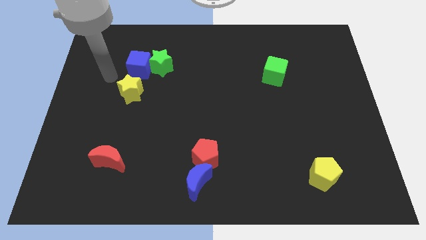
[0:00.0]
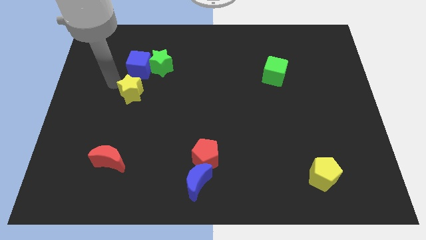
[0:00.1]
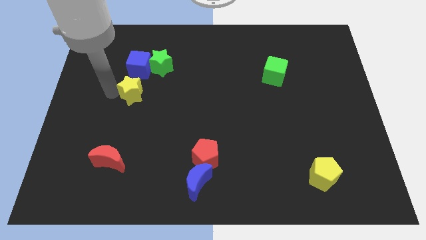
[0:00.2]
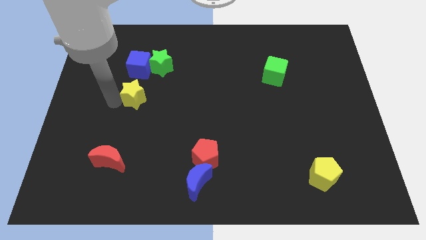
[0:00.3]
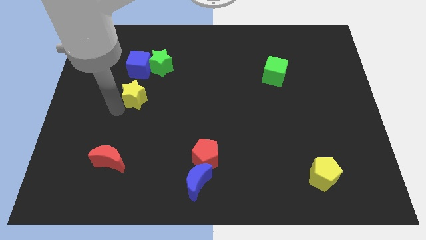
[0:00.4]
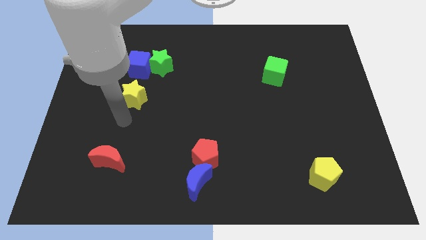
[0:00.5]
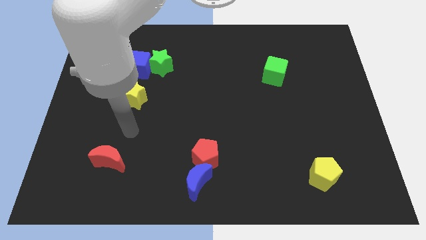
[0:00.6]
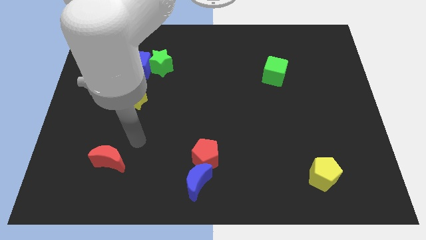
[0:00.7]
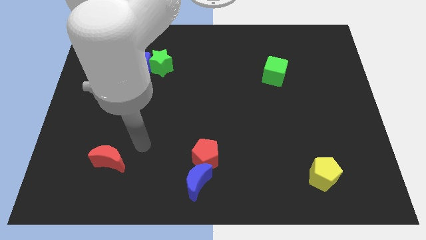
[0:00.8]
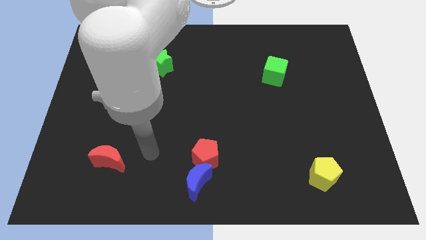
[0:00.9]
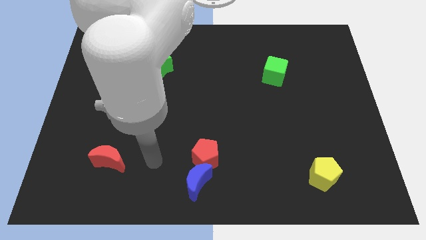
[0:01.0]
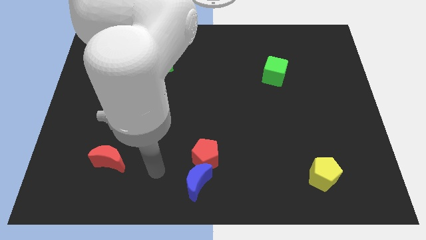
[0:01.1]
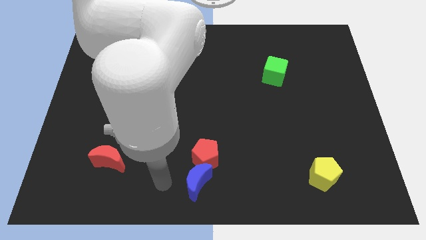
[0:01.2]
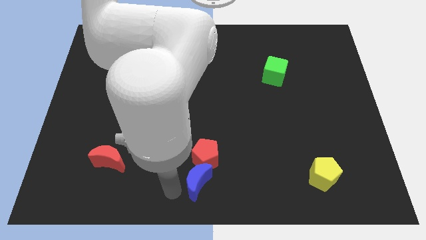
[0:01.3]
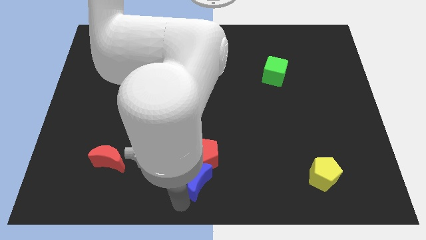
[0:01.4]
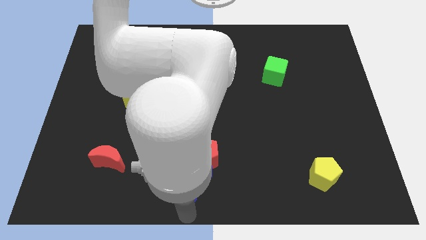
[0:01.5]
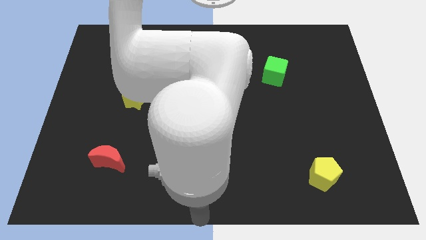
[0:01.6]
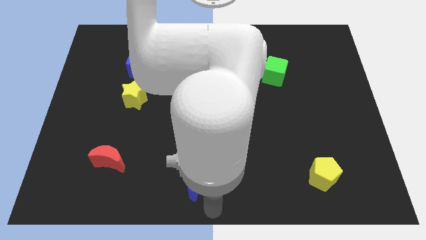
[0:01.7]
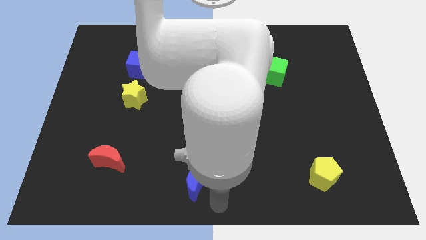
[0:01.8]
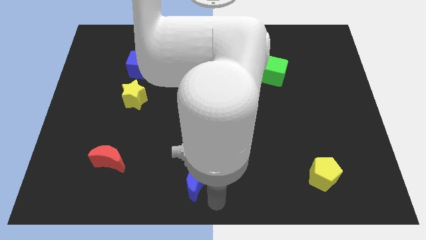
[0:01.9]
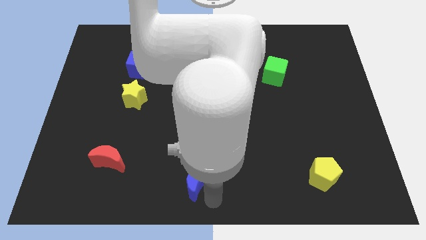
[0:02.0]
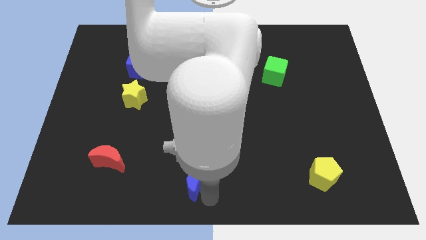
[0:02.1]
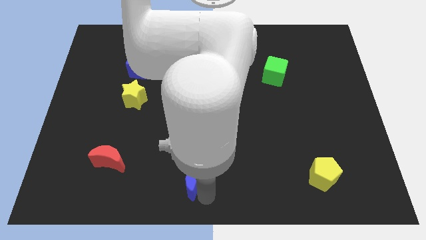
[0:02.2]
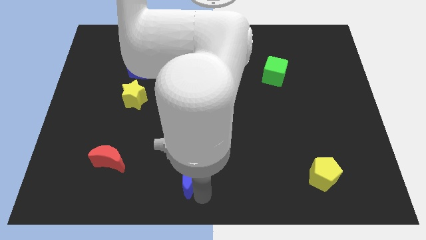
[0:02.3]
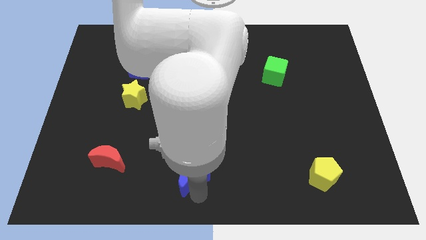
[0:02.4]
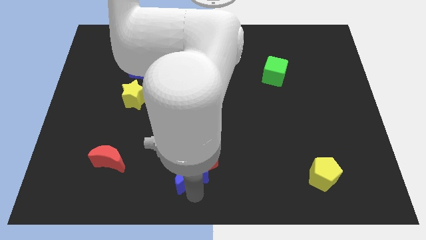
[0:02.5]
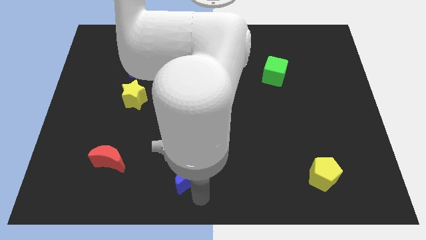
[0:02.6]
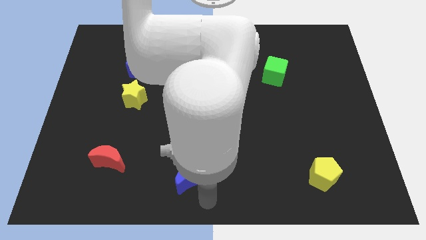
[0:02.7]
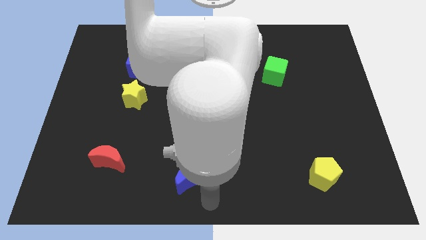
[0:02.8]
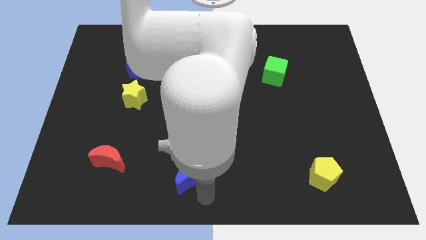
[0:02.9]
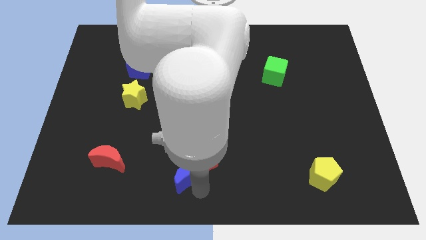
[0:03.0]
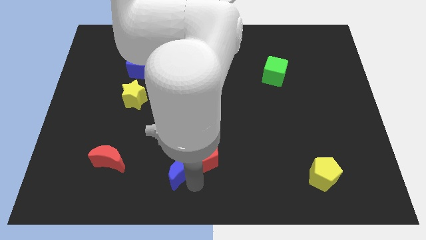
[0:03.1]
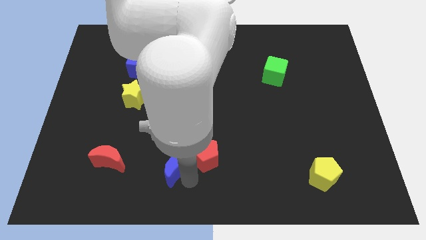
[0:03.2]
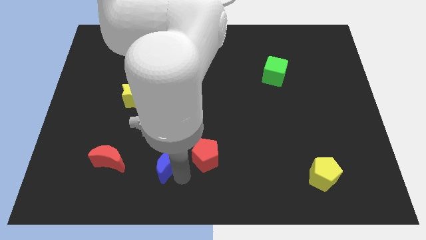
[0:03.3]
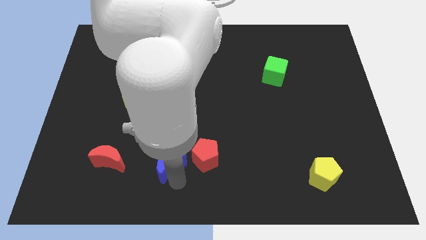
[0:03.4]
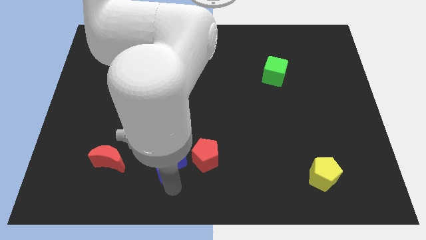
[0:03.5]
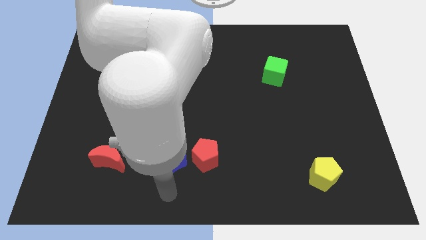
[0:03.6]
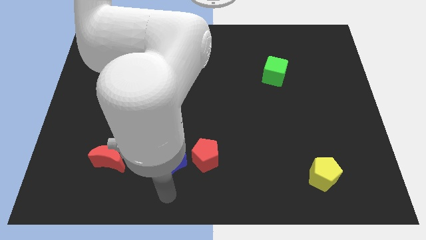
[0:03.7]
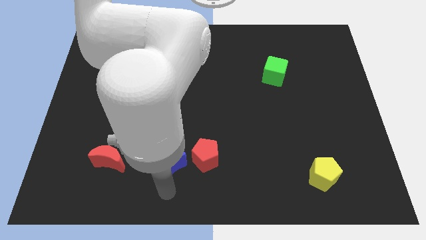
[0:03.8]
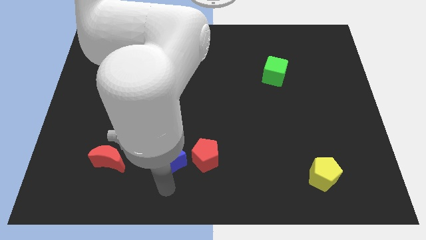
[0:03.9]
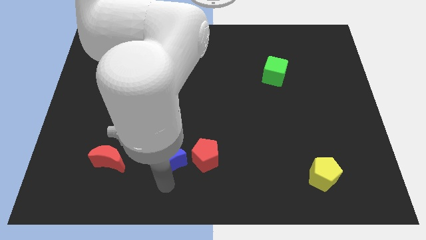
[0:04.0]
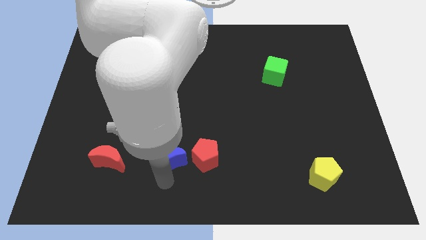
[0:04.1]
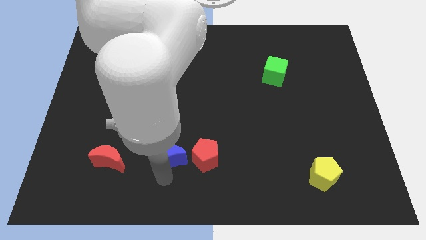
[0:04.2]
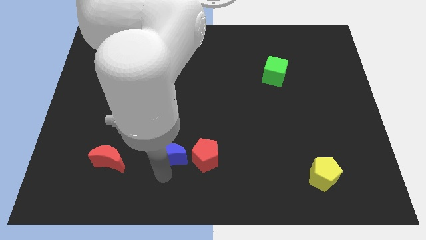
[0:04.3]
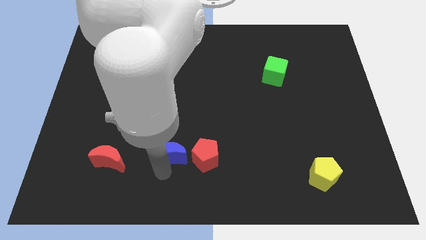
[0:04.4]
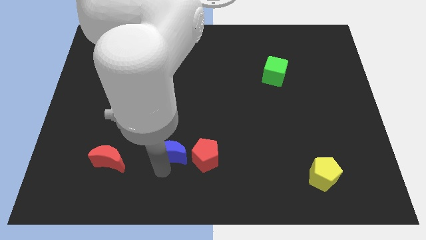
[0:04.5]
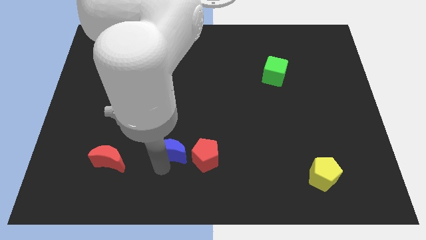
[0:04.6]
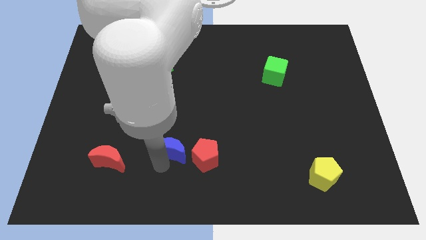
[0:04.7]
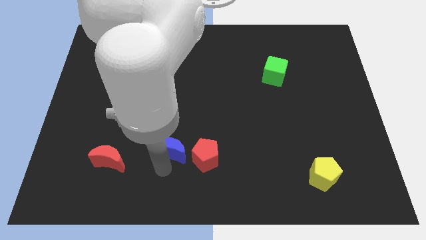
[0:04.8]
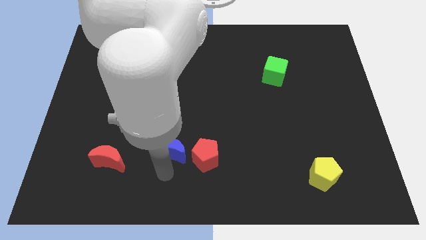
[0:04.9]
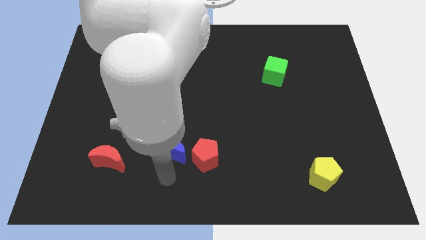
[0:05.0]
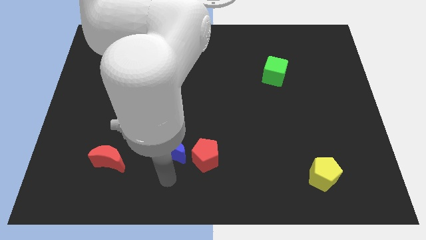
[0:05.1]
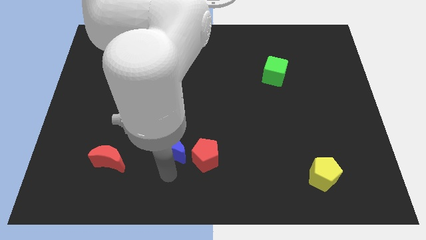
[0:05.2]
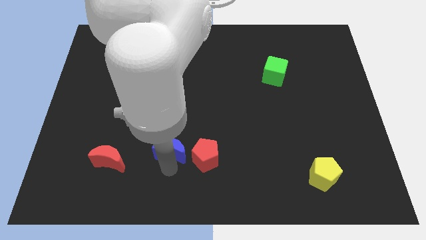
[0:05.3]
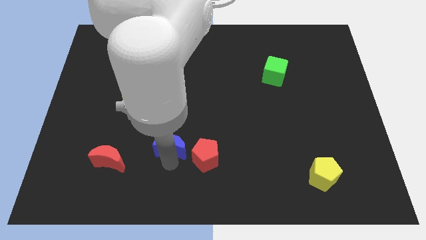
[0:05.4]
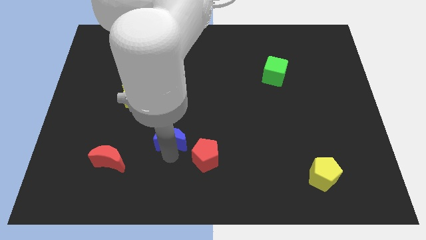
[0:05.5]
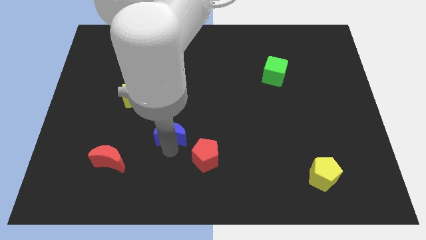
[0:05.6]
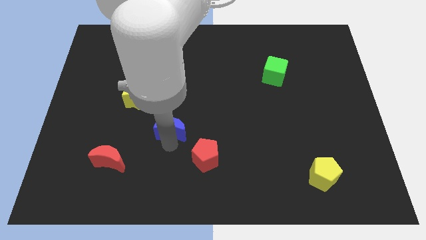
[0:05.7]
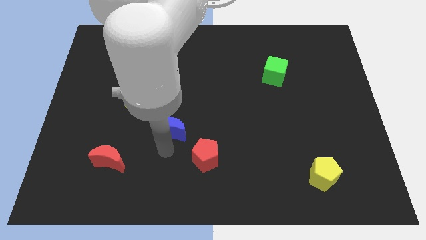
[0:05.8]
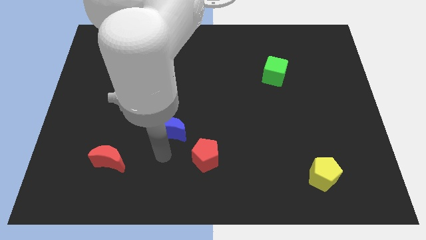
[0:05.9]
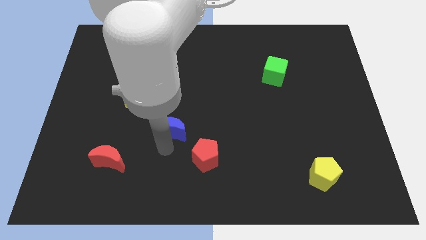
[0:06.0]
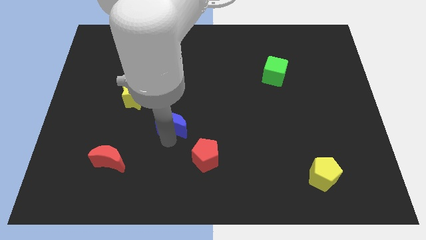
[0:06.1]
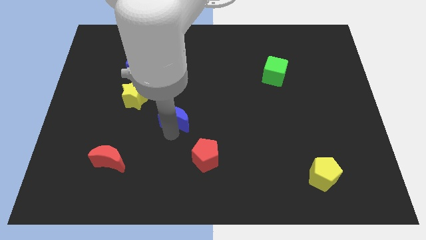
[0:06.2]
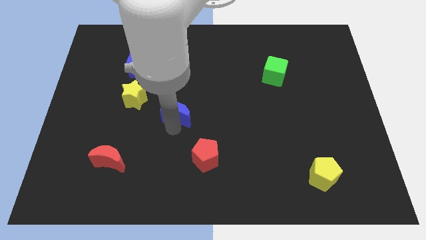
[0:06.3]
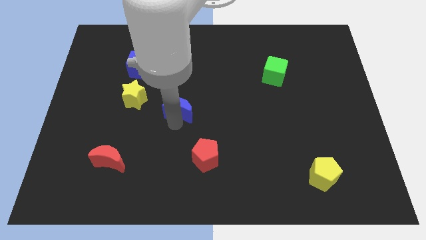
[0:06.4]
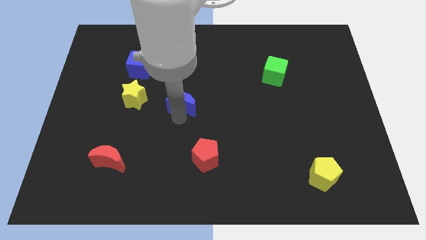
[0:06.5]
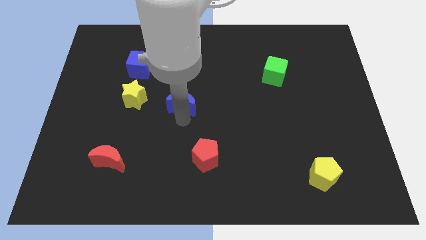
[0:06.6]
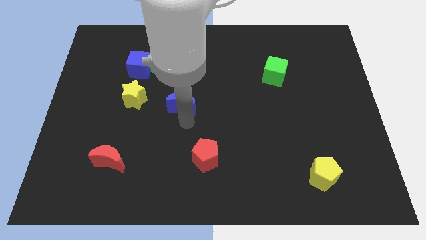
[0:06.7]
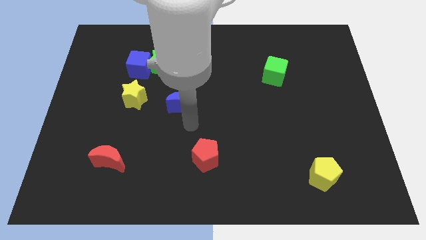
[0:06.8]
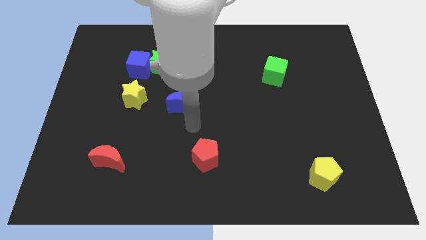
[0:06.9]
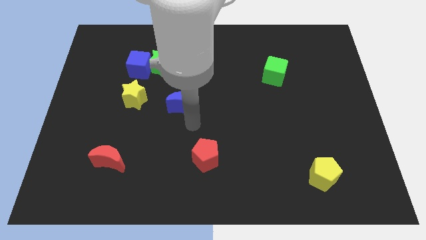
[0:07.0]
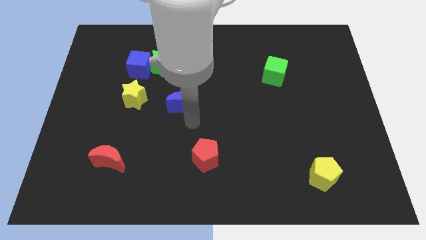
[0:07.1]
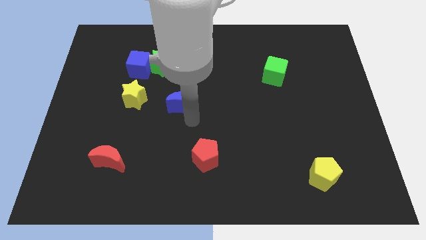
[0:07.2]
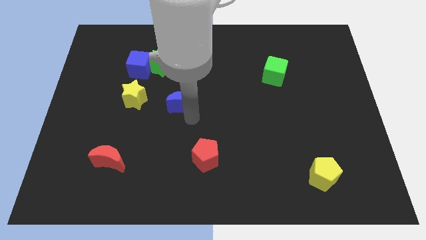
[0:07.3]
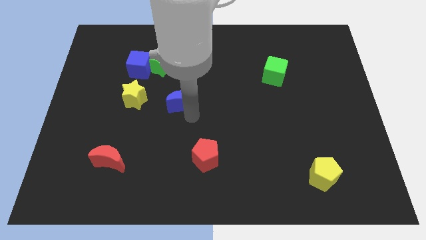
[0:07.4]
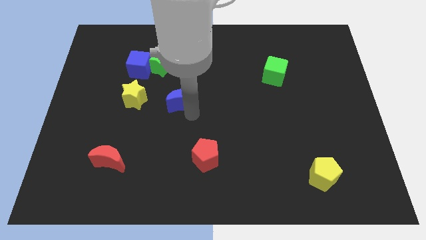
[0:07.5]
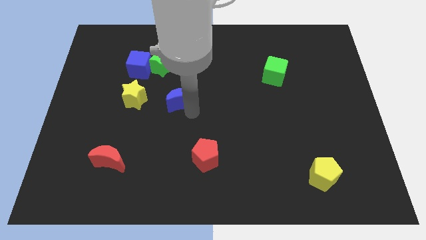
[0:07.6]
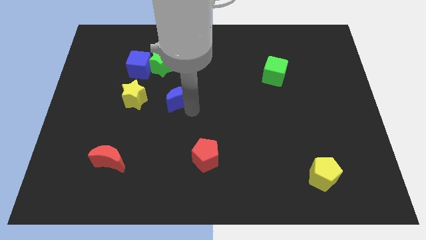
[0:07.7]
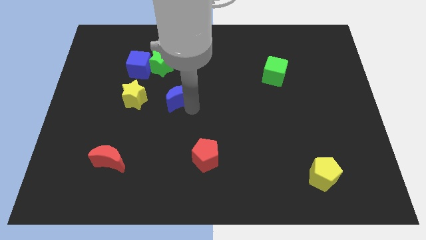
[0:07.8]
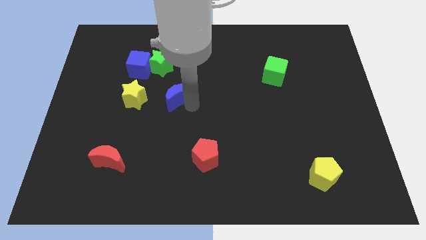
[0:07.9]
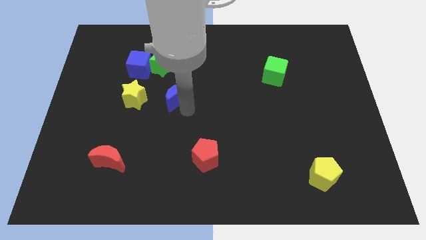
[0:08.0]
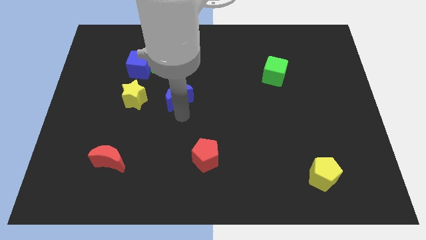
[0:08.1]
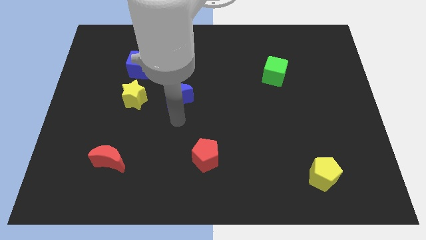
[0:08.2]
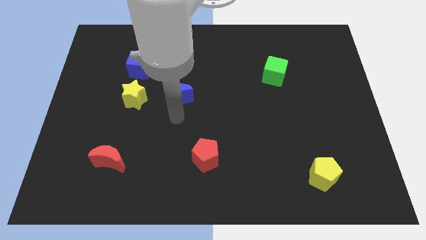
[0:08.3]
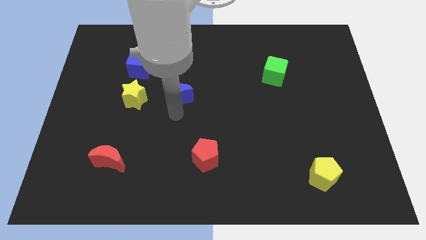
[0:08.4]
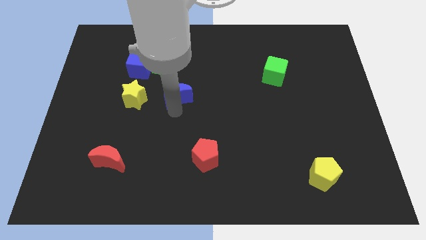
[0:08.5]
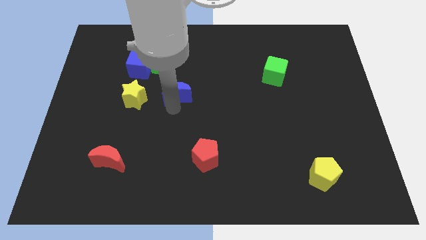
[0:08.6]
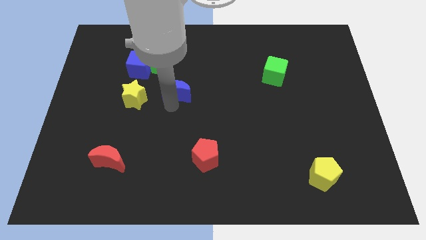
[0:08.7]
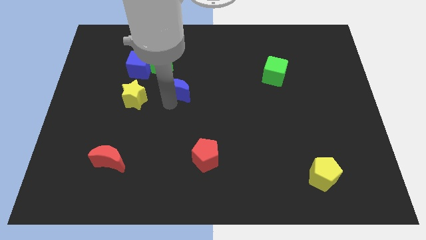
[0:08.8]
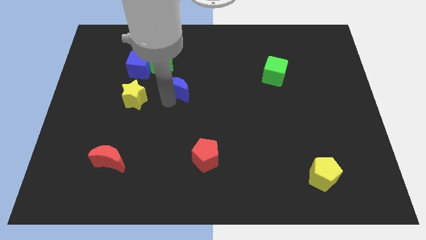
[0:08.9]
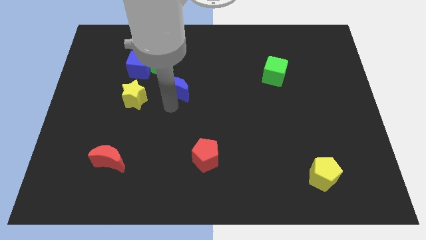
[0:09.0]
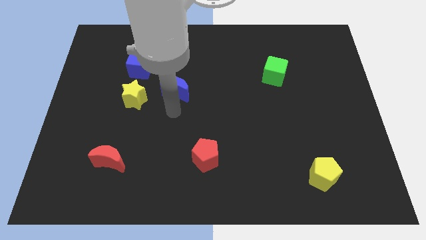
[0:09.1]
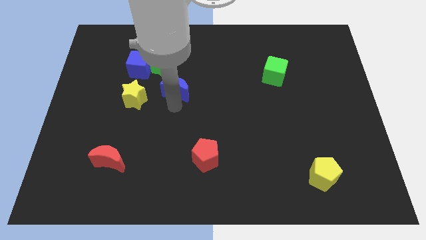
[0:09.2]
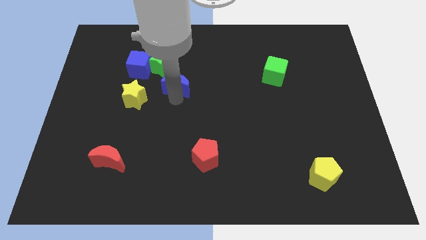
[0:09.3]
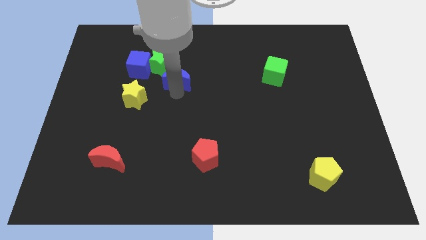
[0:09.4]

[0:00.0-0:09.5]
put the blue moon just right of the blue cube
